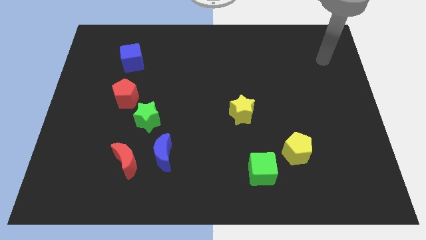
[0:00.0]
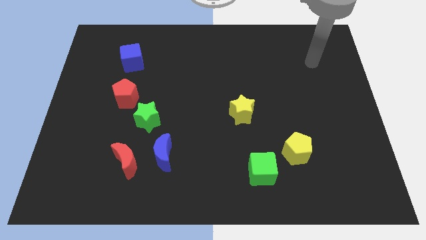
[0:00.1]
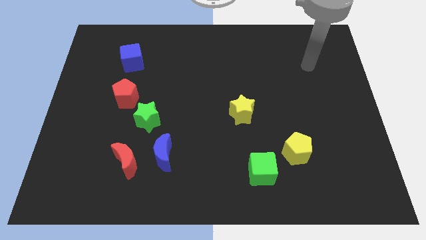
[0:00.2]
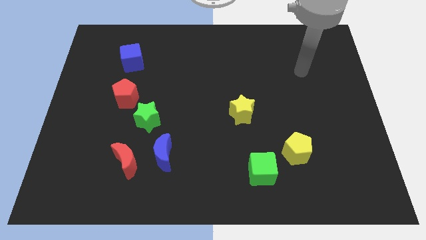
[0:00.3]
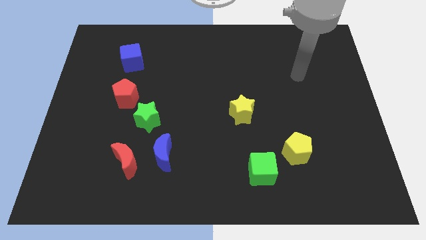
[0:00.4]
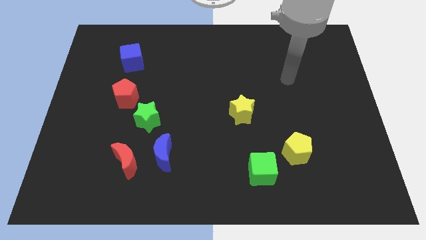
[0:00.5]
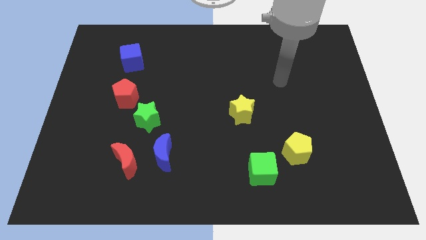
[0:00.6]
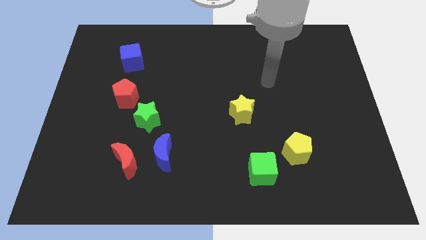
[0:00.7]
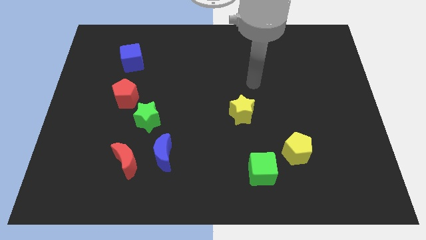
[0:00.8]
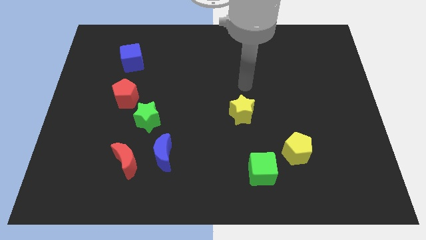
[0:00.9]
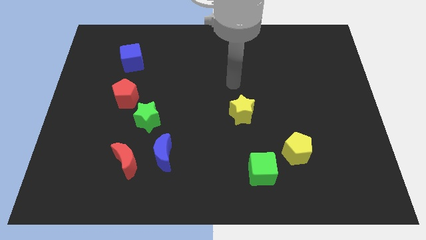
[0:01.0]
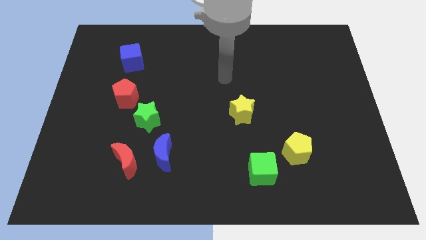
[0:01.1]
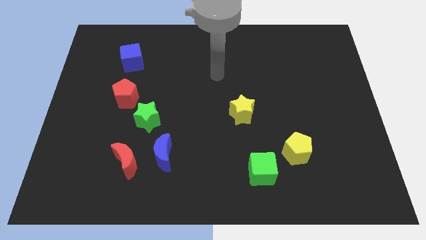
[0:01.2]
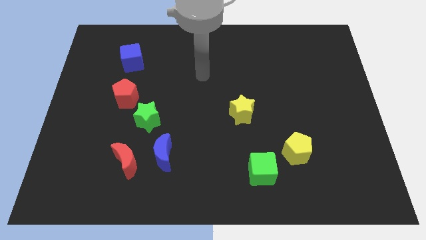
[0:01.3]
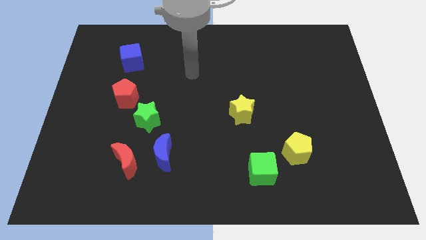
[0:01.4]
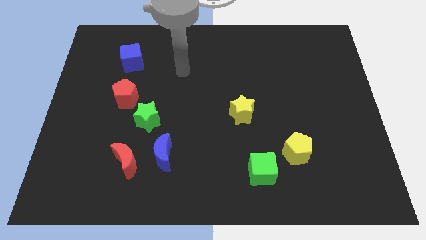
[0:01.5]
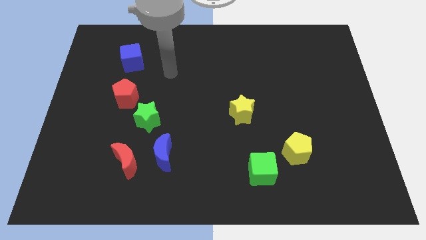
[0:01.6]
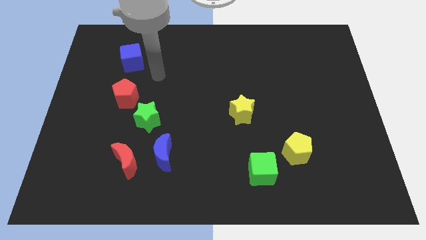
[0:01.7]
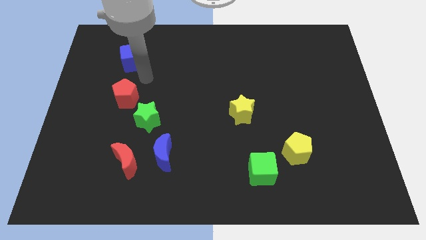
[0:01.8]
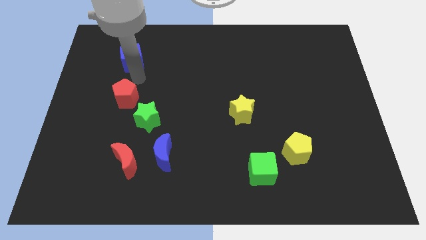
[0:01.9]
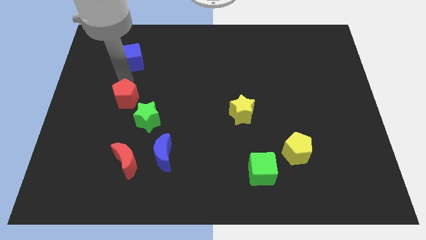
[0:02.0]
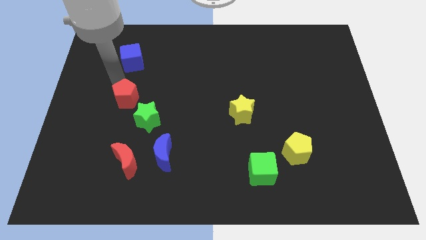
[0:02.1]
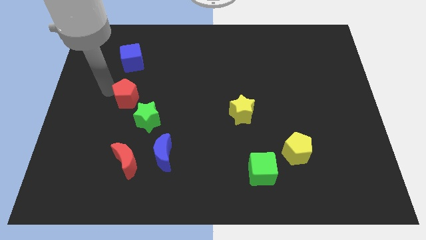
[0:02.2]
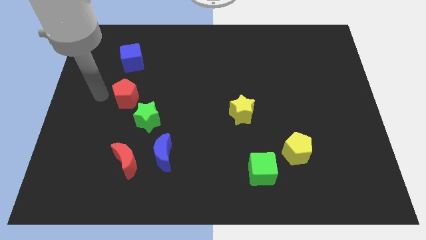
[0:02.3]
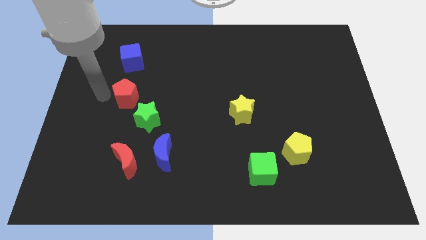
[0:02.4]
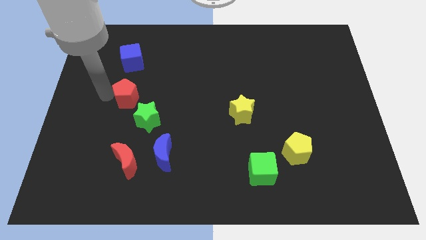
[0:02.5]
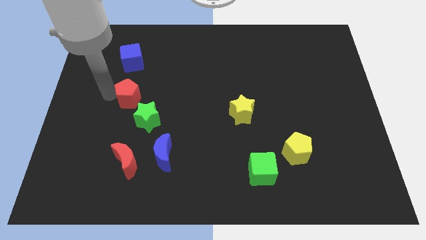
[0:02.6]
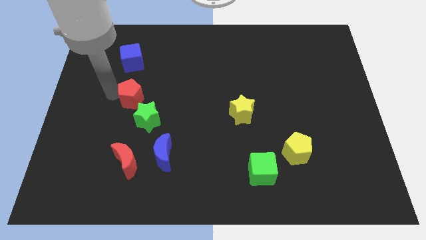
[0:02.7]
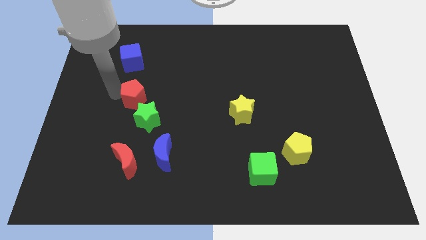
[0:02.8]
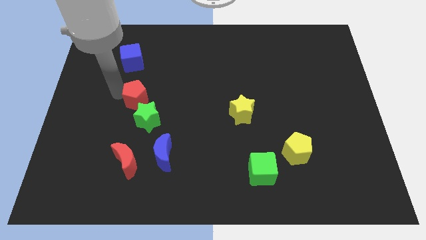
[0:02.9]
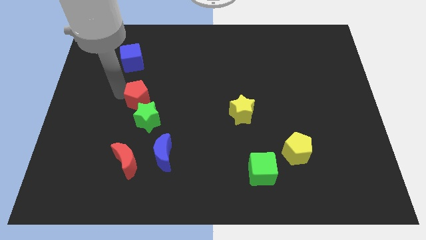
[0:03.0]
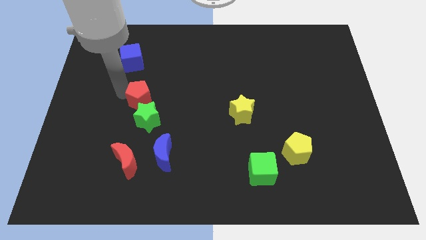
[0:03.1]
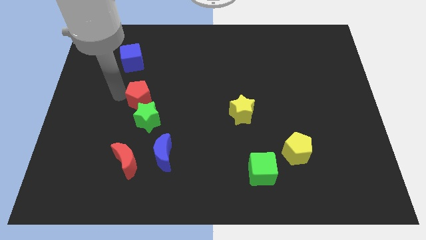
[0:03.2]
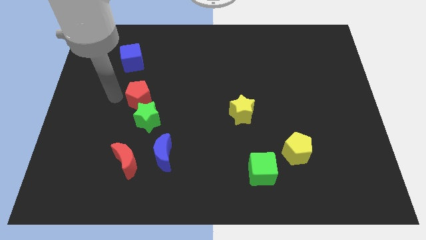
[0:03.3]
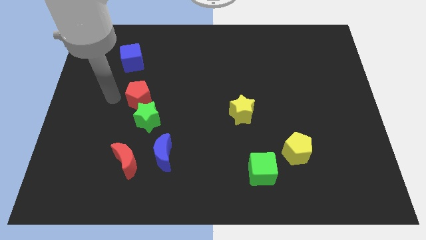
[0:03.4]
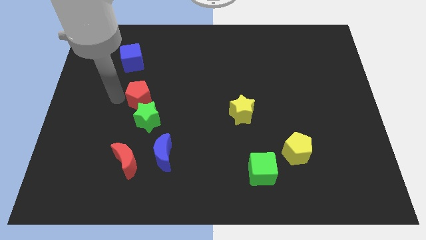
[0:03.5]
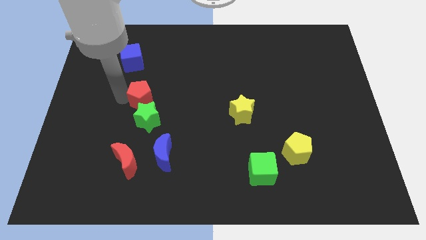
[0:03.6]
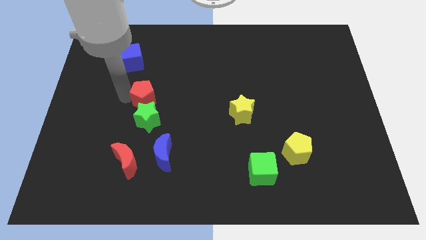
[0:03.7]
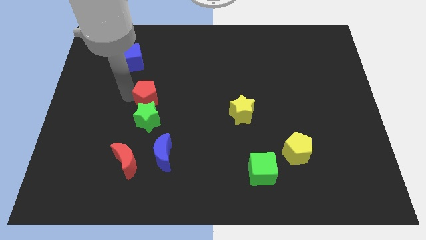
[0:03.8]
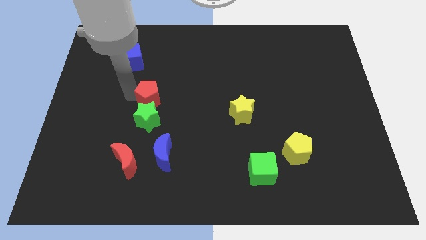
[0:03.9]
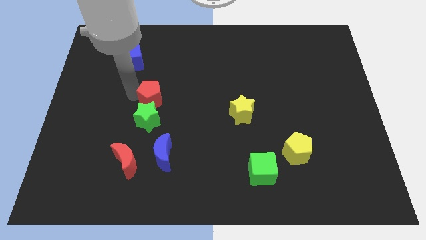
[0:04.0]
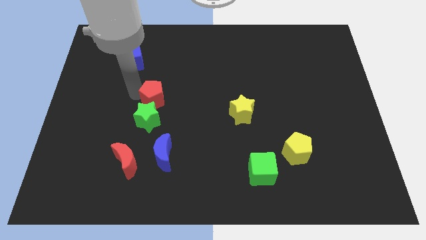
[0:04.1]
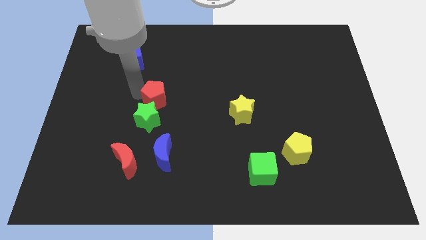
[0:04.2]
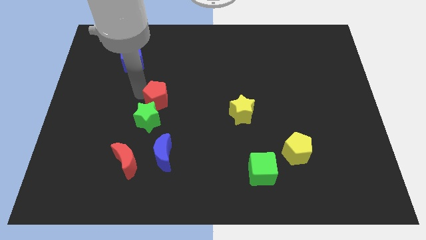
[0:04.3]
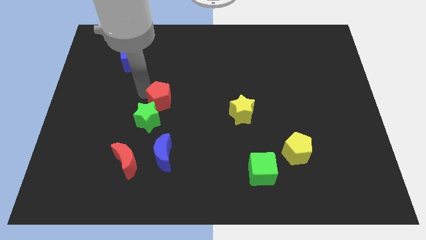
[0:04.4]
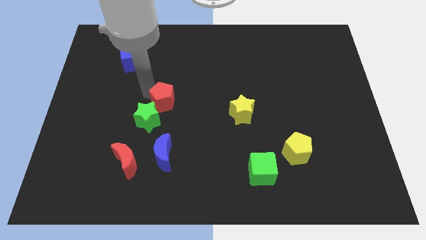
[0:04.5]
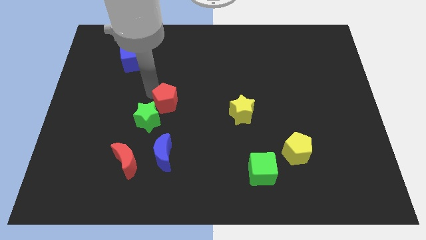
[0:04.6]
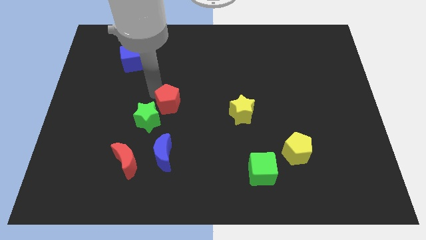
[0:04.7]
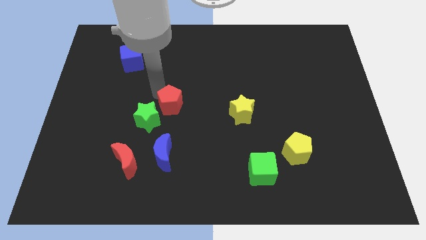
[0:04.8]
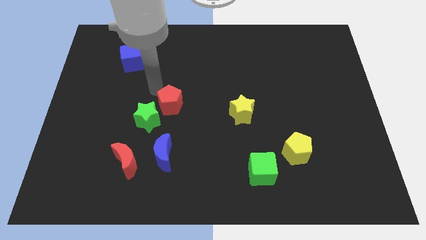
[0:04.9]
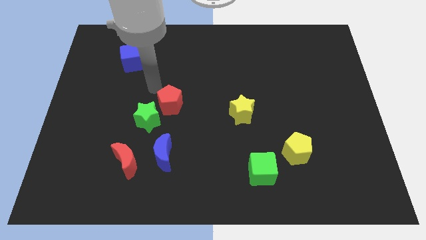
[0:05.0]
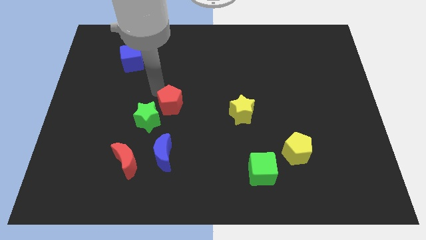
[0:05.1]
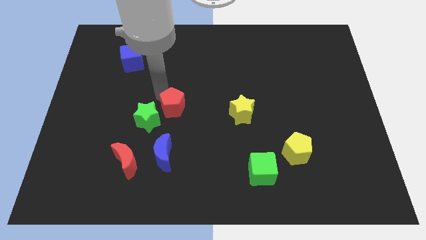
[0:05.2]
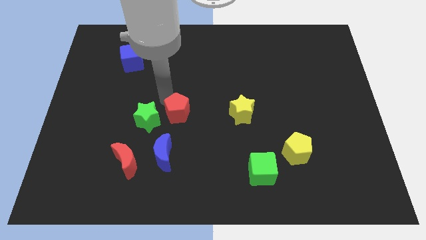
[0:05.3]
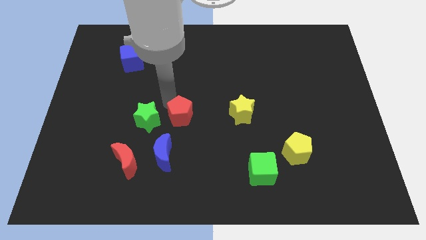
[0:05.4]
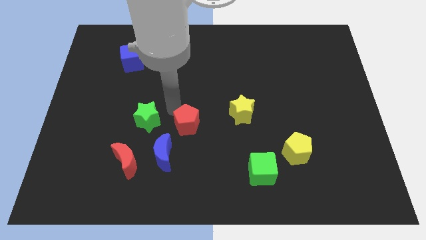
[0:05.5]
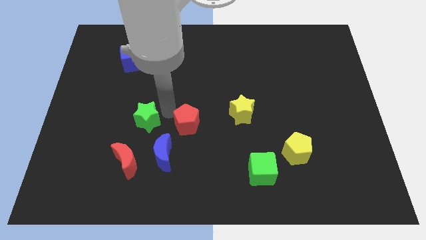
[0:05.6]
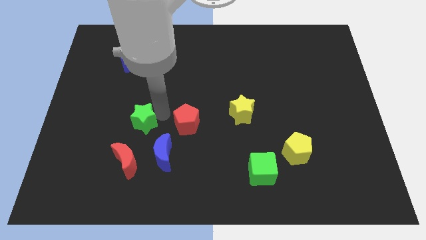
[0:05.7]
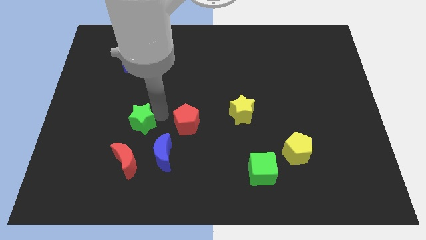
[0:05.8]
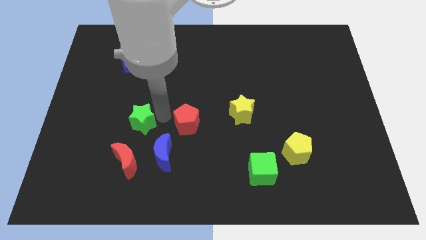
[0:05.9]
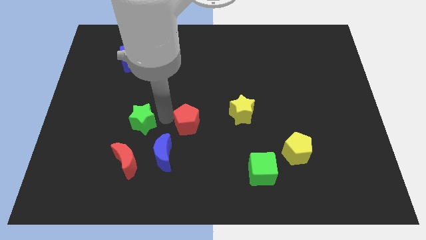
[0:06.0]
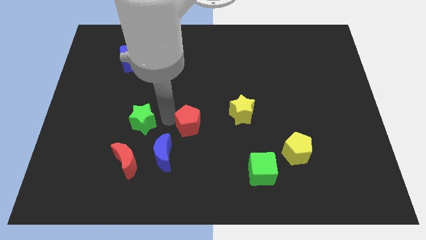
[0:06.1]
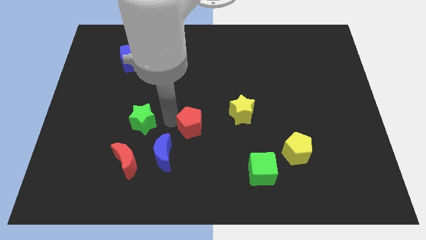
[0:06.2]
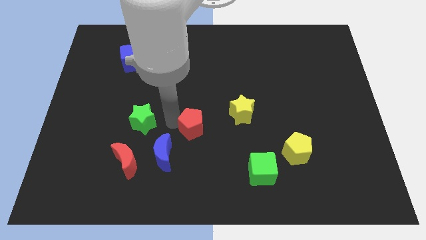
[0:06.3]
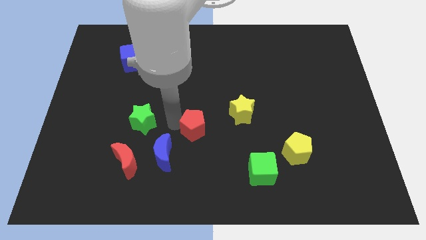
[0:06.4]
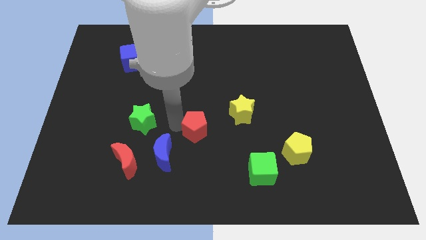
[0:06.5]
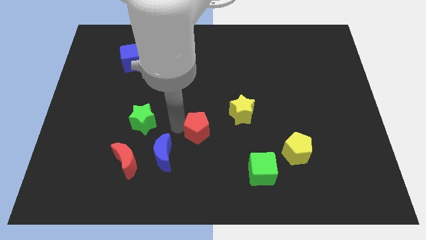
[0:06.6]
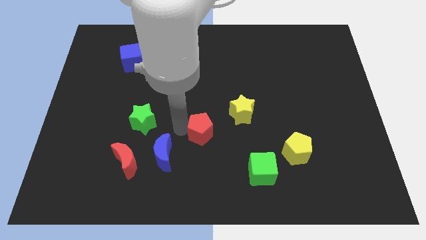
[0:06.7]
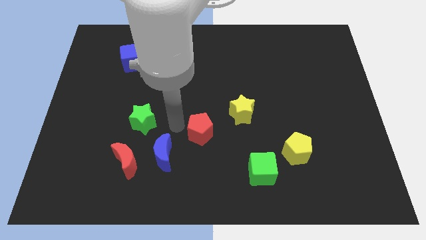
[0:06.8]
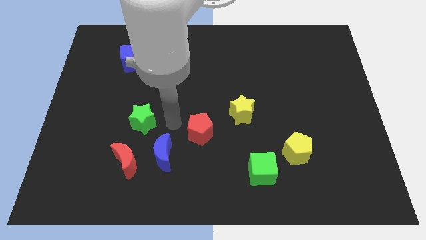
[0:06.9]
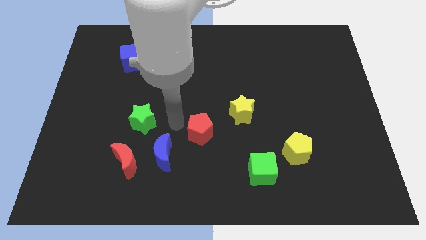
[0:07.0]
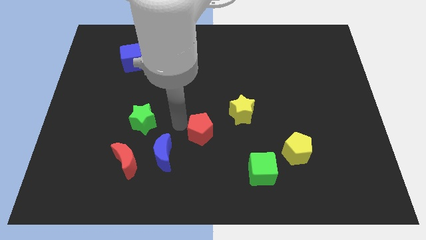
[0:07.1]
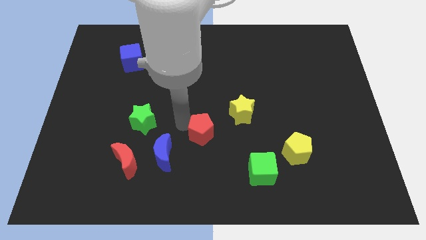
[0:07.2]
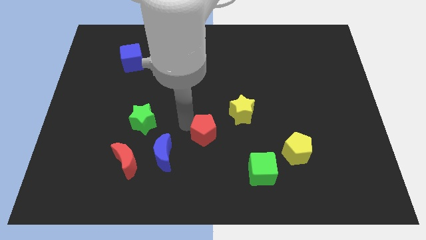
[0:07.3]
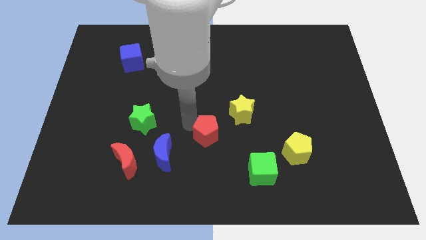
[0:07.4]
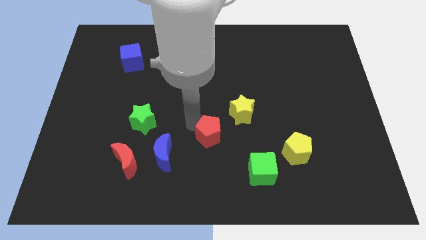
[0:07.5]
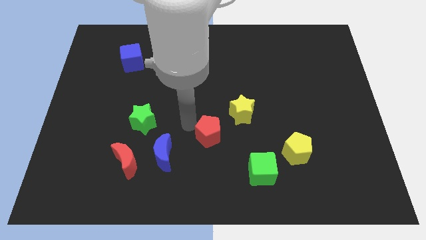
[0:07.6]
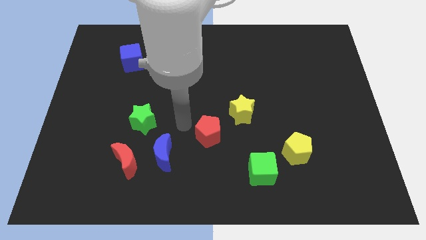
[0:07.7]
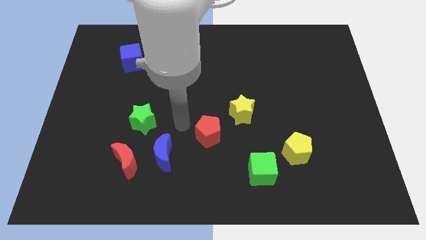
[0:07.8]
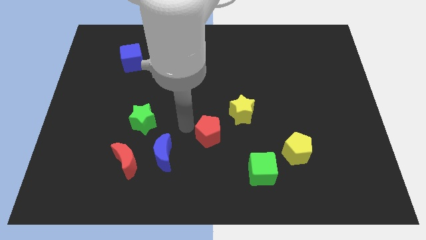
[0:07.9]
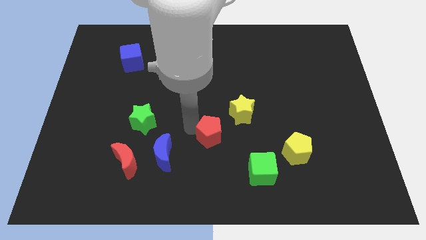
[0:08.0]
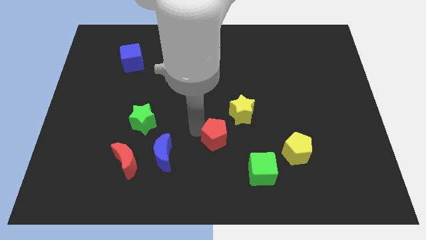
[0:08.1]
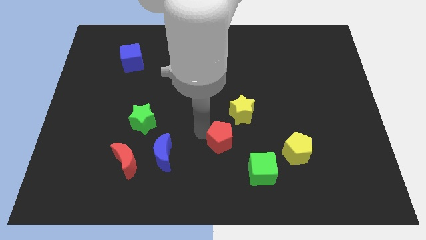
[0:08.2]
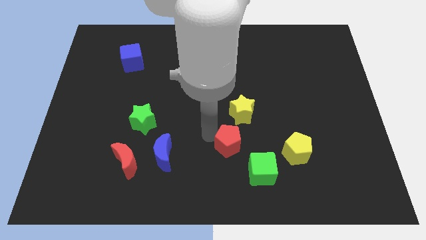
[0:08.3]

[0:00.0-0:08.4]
move the red pentagon just left of the yellow pentagon
